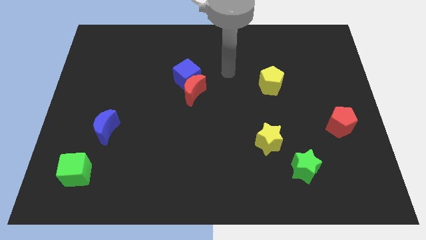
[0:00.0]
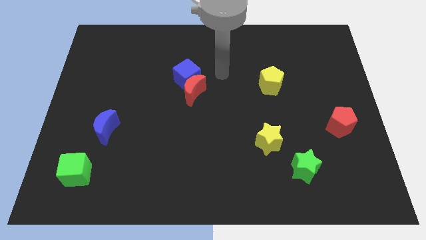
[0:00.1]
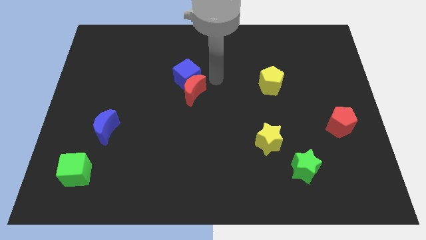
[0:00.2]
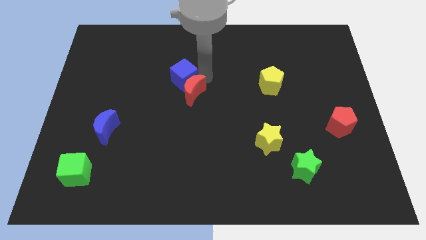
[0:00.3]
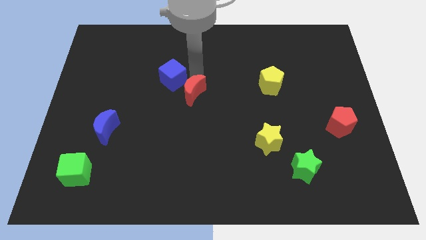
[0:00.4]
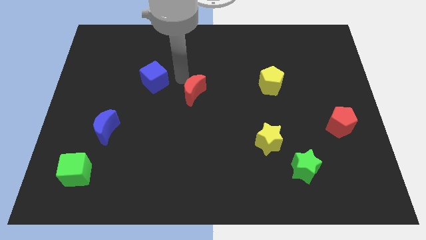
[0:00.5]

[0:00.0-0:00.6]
separate the red moon from the blue cube

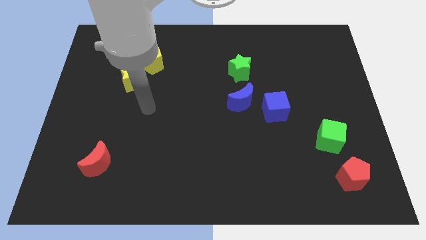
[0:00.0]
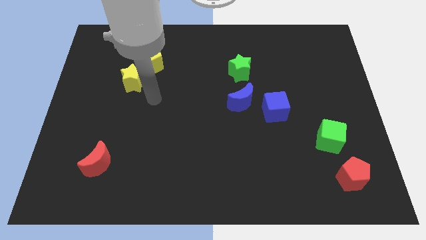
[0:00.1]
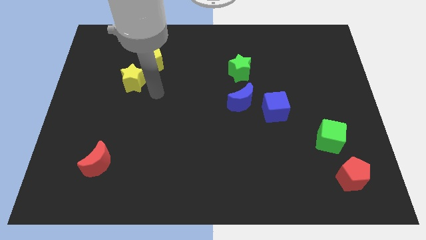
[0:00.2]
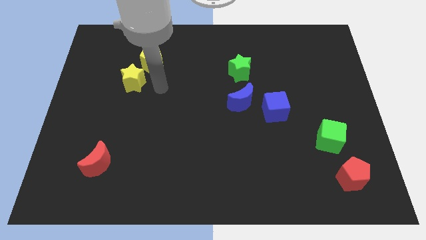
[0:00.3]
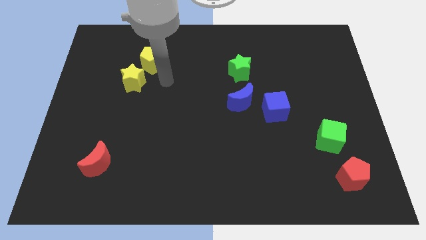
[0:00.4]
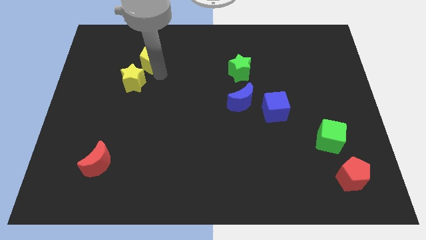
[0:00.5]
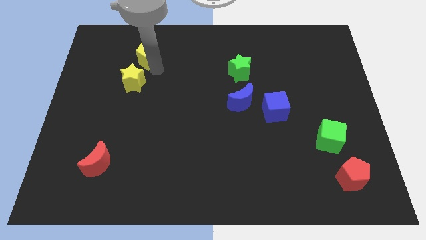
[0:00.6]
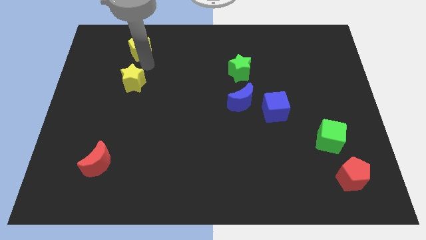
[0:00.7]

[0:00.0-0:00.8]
pull the yellow star apart from the yellow pentagon

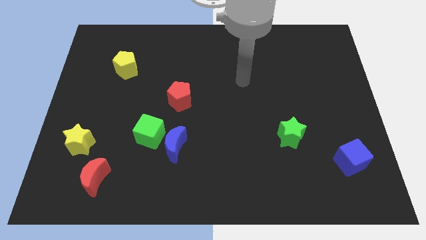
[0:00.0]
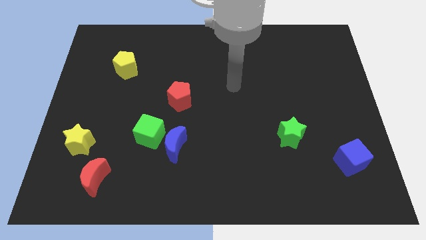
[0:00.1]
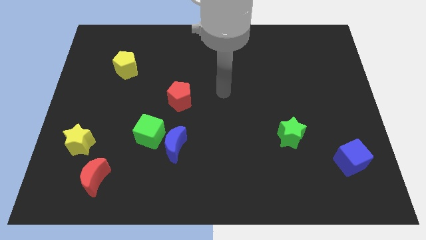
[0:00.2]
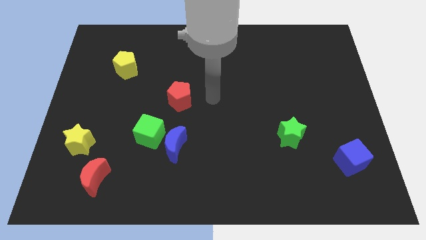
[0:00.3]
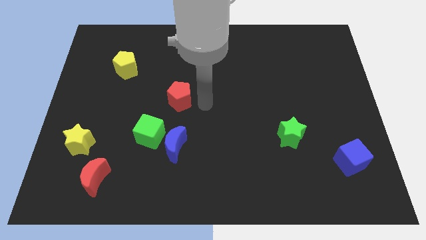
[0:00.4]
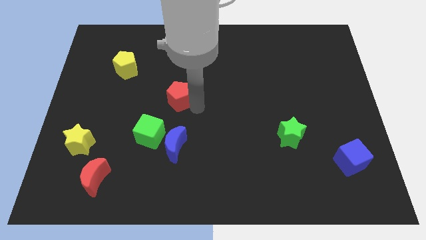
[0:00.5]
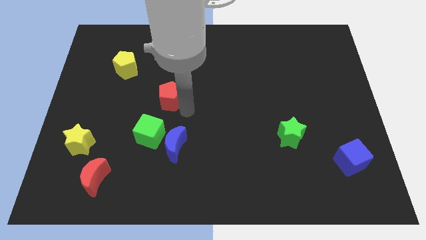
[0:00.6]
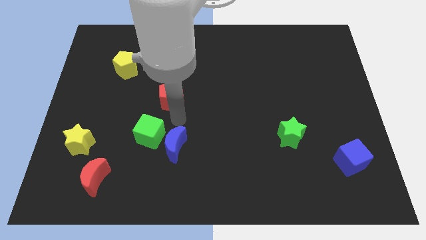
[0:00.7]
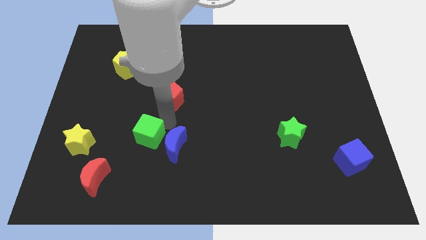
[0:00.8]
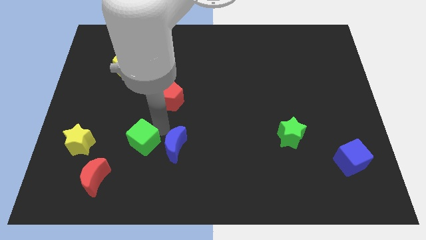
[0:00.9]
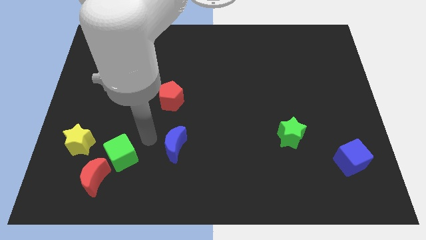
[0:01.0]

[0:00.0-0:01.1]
move the blue moon away from the green cube

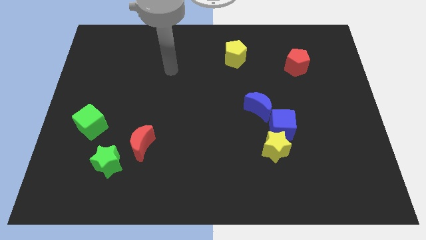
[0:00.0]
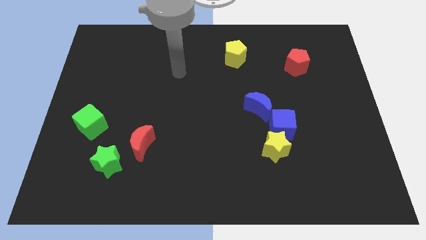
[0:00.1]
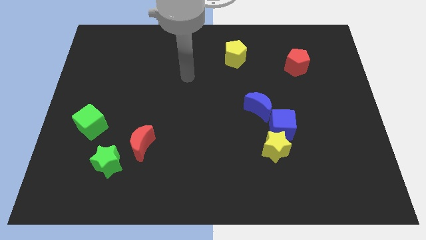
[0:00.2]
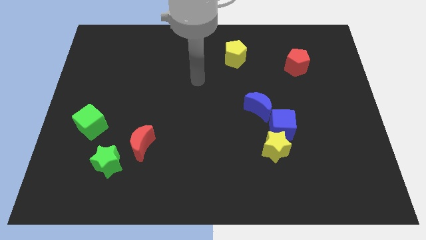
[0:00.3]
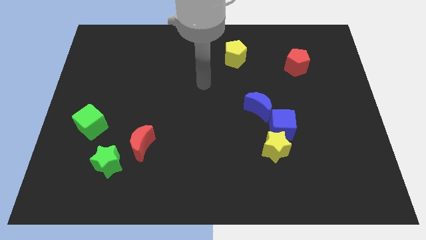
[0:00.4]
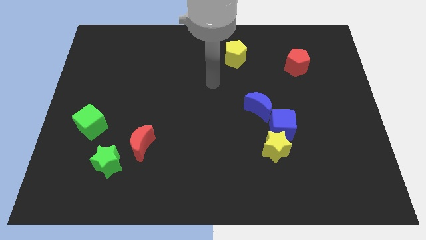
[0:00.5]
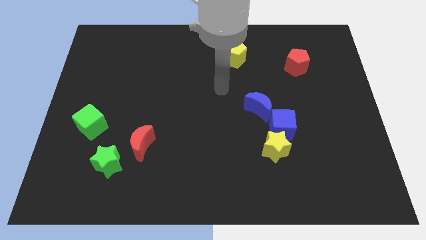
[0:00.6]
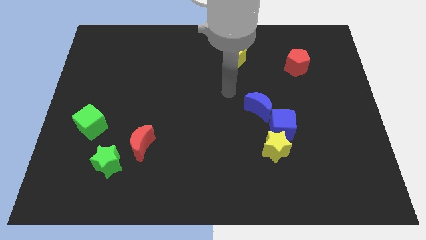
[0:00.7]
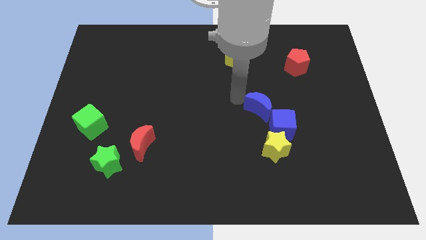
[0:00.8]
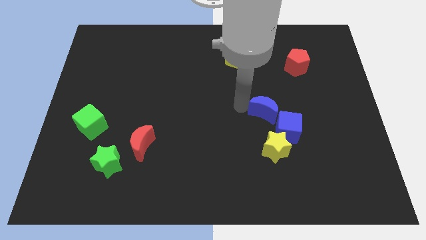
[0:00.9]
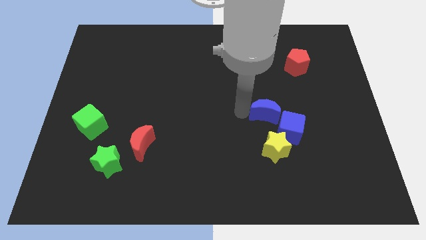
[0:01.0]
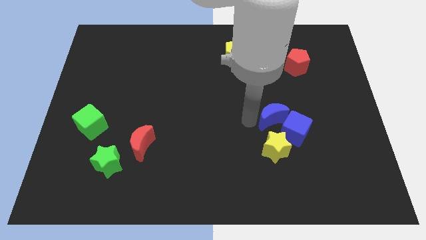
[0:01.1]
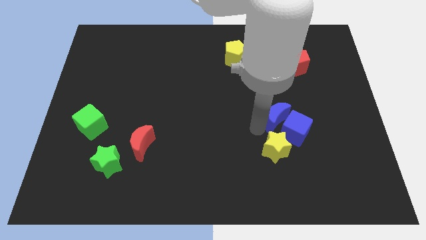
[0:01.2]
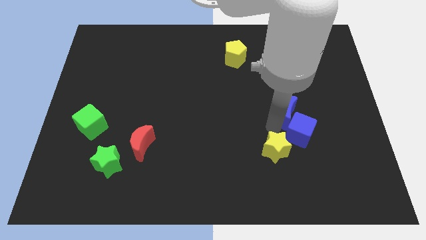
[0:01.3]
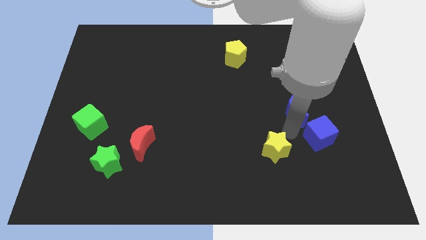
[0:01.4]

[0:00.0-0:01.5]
separate the yellow star from the blue cube

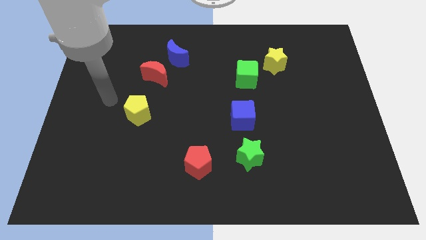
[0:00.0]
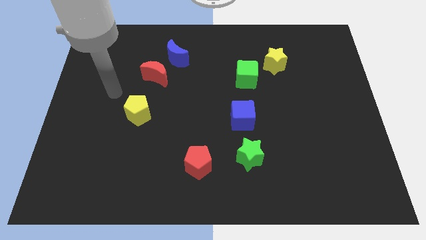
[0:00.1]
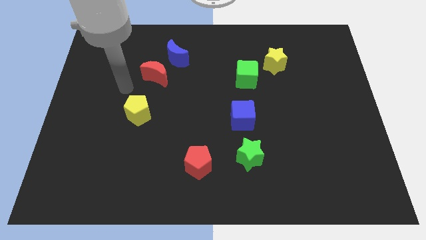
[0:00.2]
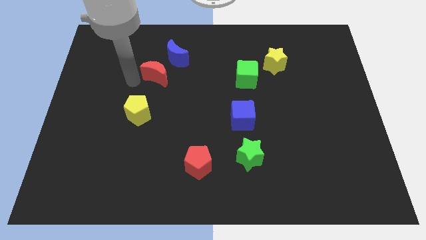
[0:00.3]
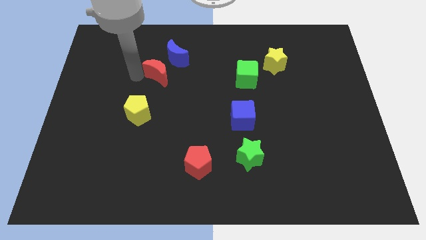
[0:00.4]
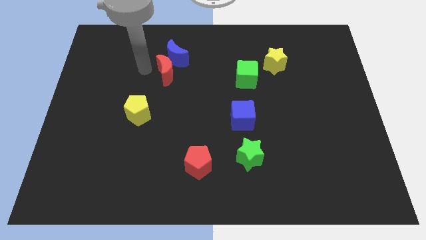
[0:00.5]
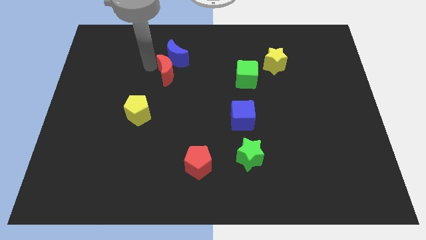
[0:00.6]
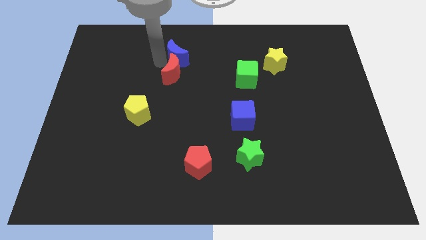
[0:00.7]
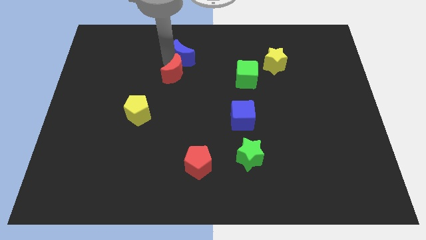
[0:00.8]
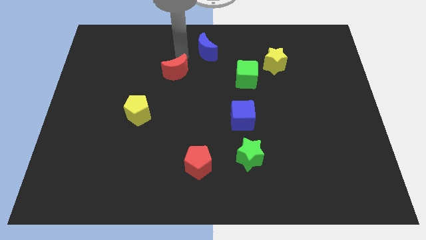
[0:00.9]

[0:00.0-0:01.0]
separate the red moon from the blue moon

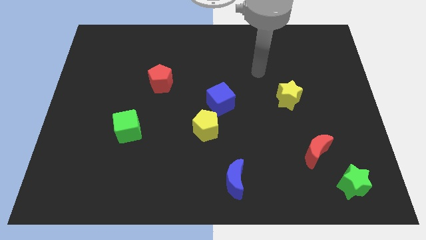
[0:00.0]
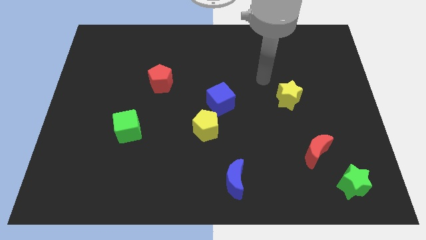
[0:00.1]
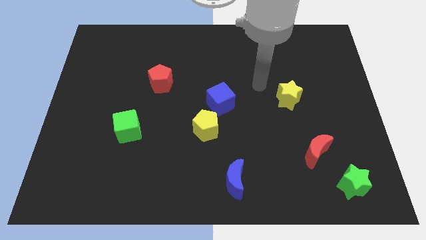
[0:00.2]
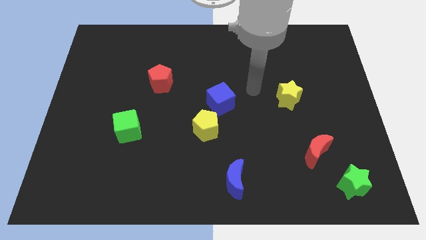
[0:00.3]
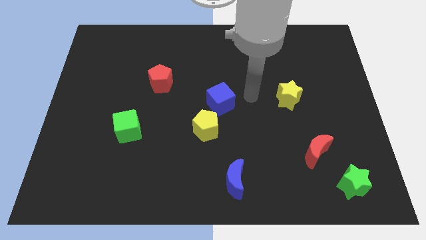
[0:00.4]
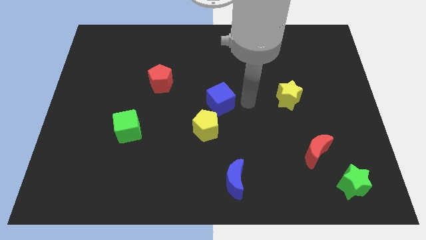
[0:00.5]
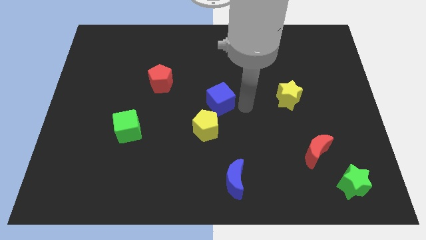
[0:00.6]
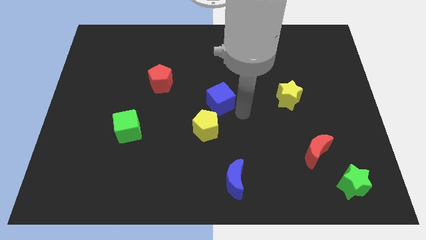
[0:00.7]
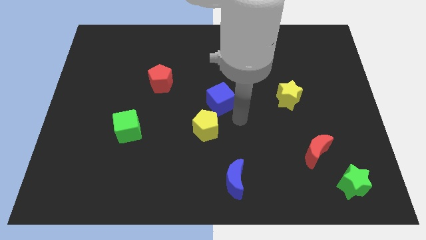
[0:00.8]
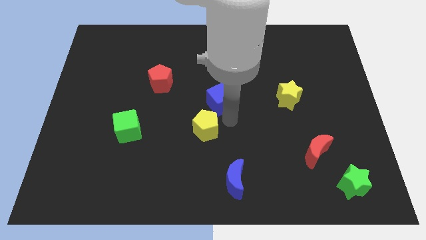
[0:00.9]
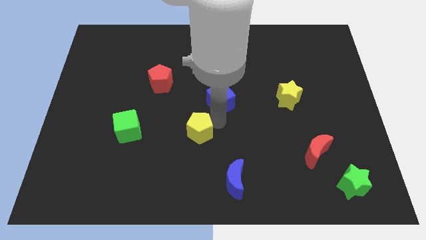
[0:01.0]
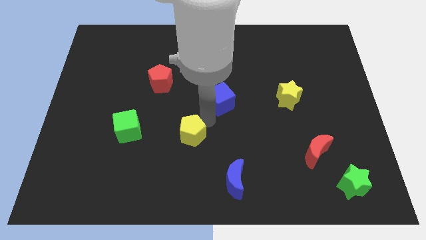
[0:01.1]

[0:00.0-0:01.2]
pull the blue cube apart from the yellow pentagon

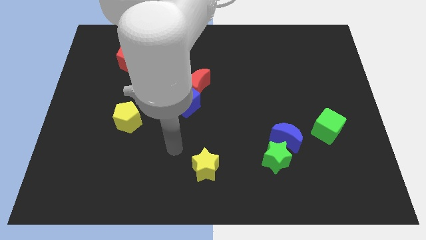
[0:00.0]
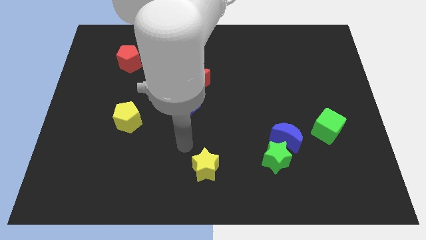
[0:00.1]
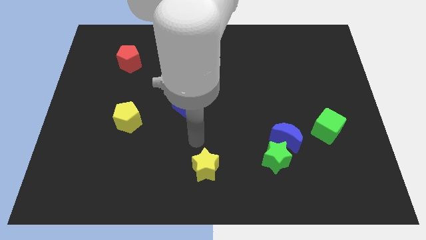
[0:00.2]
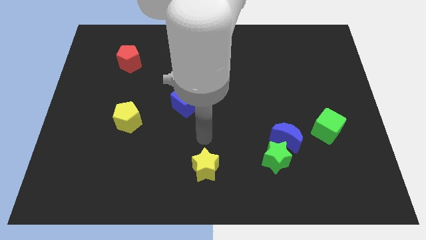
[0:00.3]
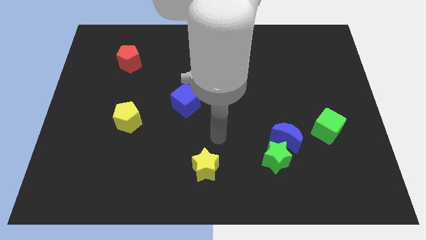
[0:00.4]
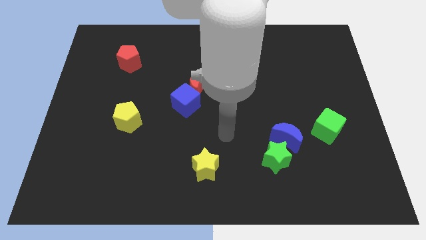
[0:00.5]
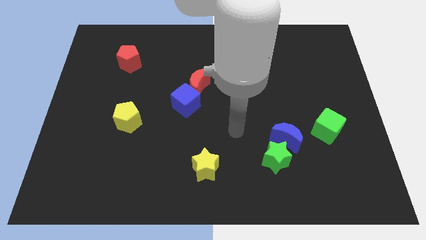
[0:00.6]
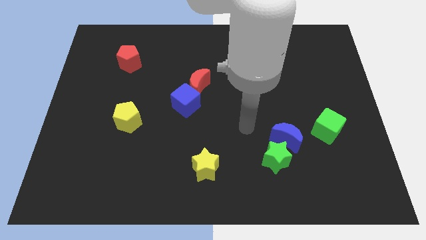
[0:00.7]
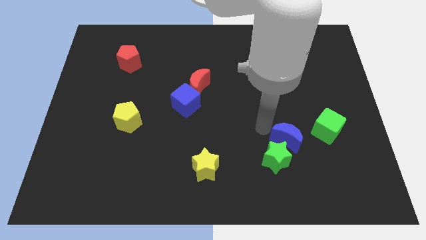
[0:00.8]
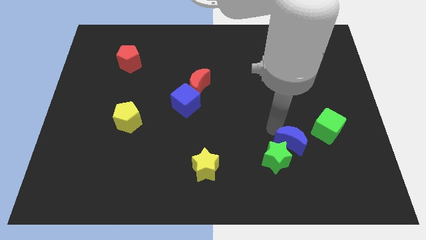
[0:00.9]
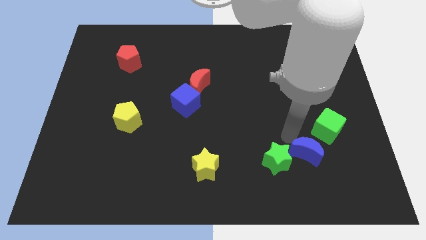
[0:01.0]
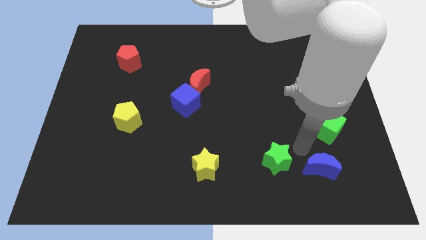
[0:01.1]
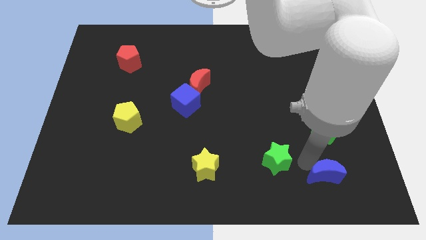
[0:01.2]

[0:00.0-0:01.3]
pull the green star apart from the blue moon

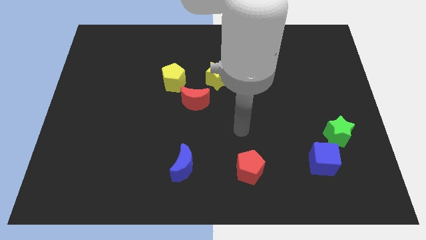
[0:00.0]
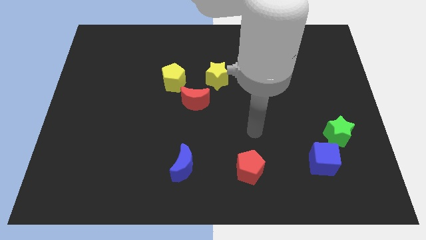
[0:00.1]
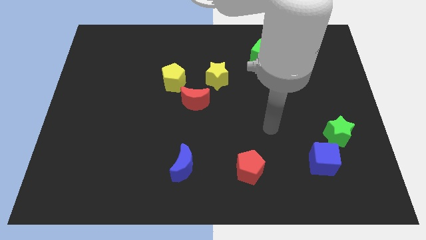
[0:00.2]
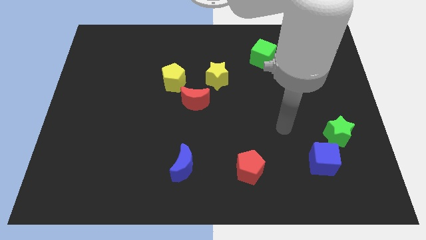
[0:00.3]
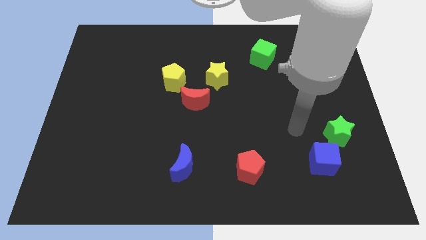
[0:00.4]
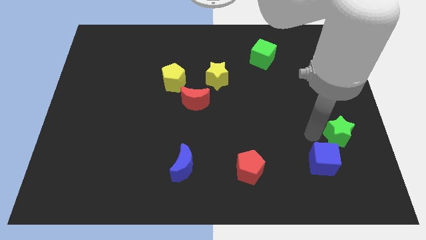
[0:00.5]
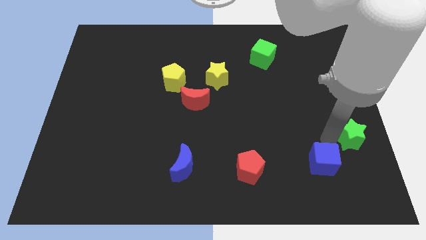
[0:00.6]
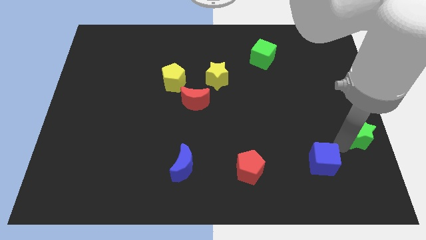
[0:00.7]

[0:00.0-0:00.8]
move the blue cube away from the green star

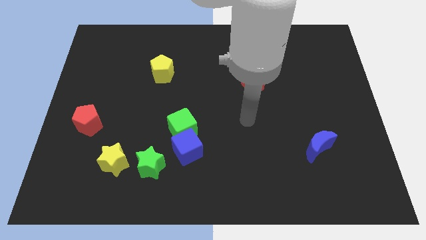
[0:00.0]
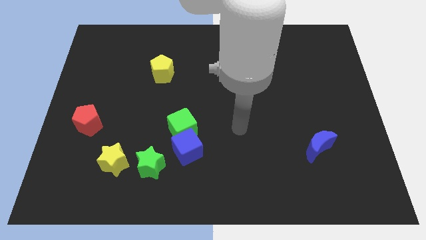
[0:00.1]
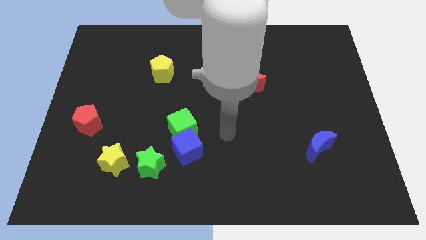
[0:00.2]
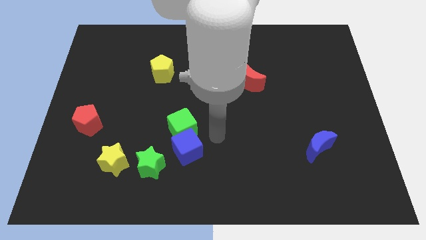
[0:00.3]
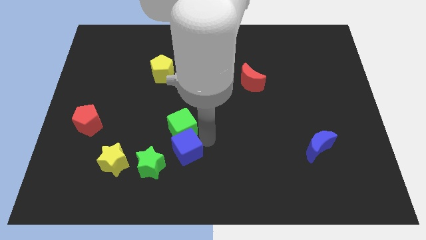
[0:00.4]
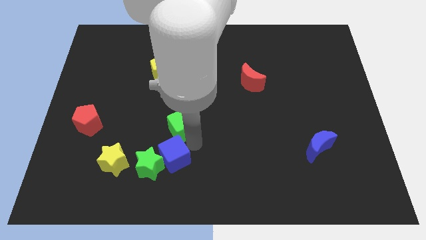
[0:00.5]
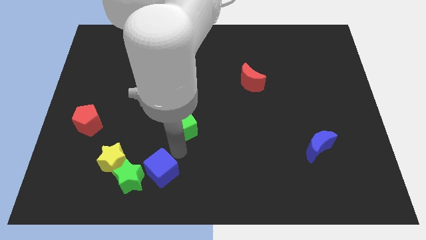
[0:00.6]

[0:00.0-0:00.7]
move the green cube away from the blue cube

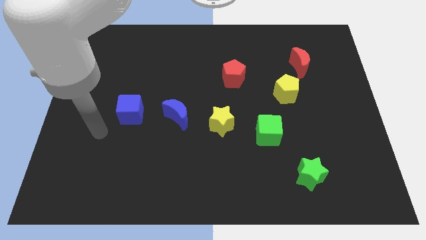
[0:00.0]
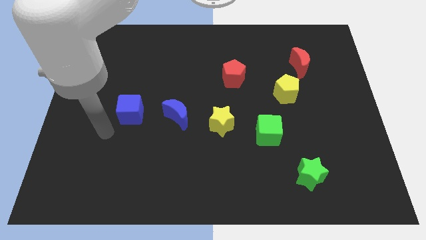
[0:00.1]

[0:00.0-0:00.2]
separate the red moon from the yellow pentagon

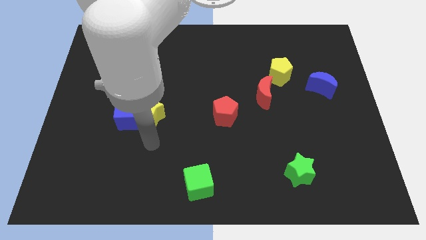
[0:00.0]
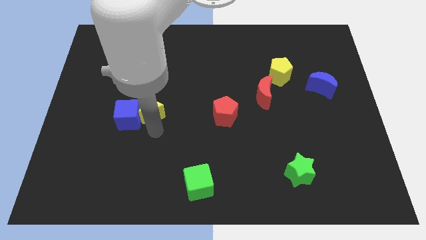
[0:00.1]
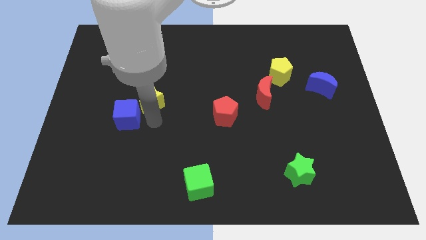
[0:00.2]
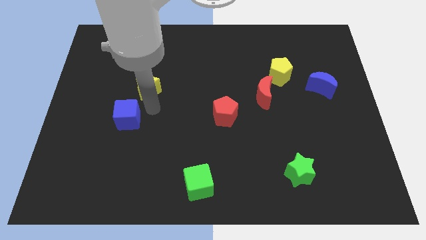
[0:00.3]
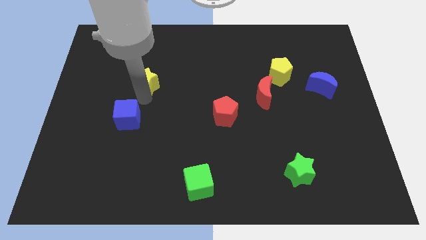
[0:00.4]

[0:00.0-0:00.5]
separate the blue cube from the yellow star
